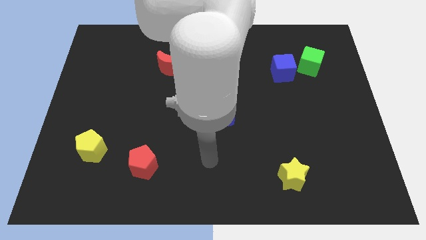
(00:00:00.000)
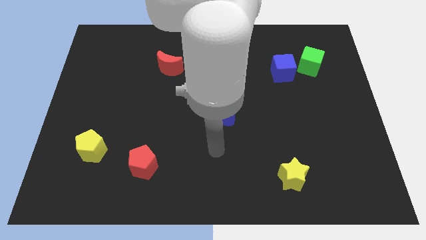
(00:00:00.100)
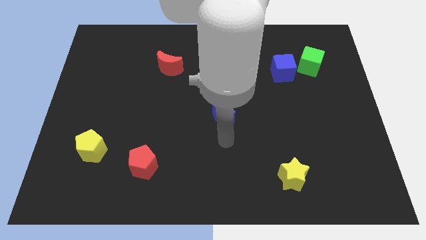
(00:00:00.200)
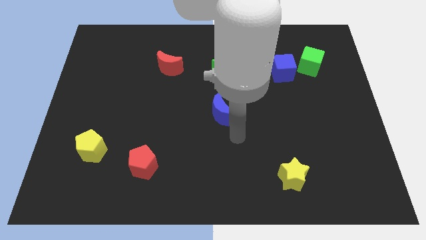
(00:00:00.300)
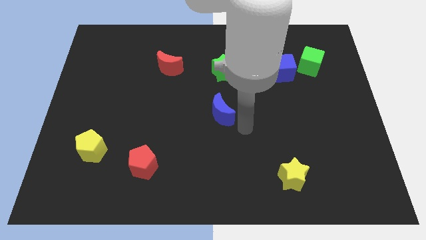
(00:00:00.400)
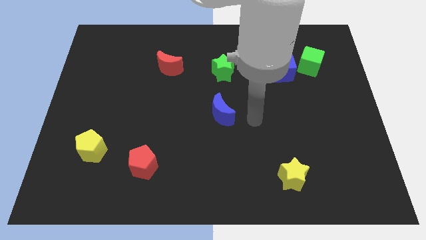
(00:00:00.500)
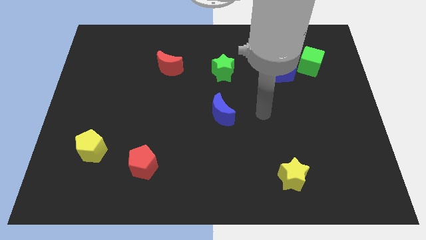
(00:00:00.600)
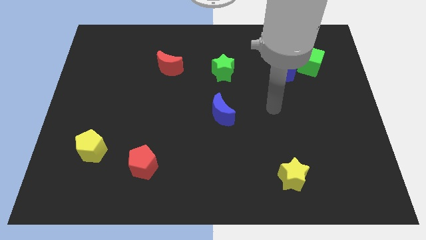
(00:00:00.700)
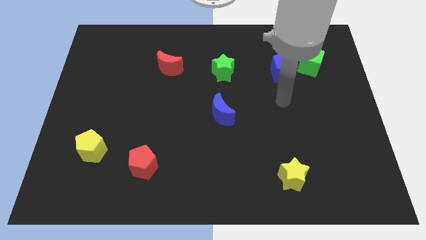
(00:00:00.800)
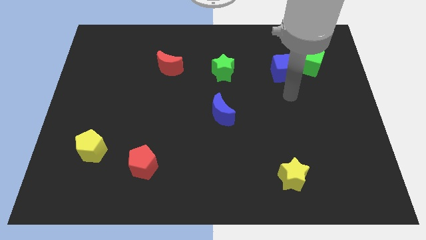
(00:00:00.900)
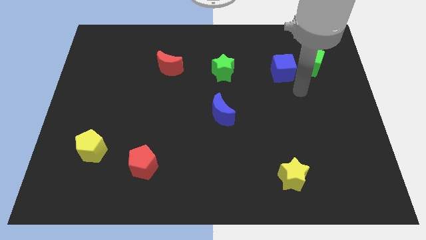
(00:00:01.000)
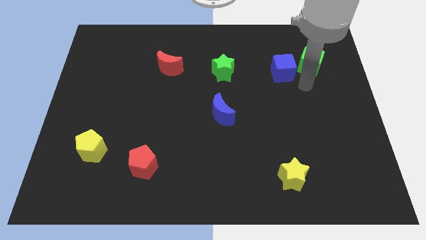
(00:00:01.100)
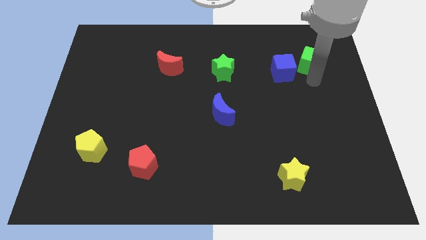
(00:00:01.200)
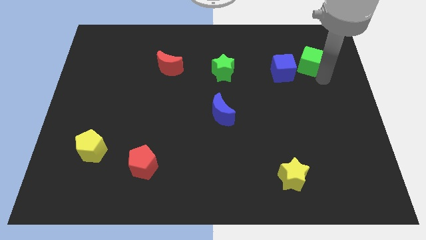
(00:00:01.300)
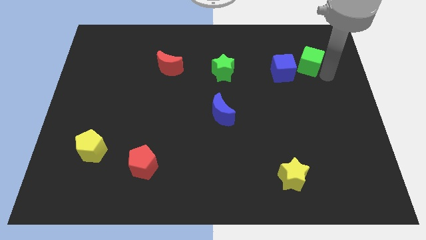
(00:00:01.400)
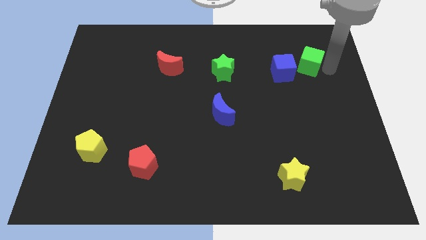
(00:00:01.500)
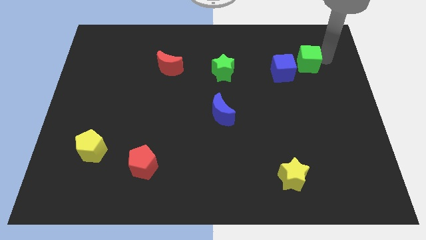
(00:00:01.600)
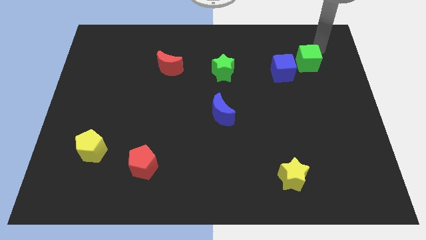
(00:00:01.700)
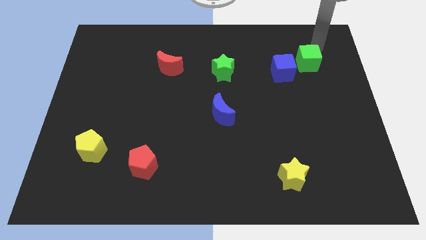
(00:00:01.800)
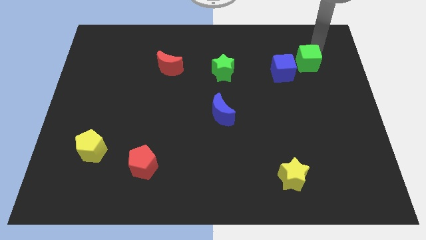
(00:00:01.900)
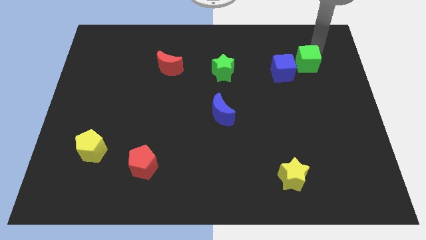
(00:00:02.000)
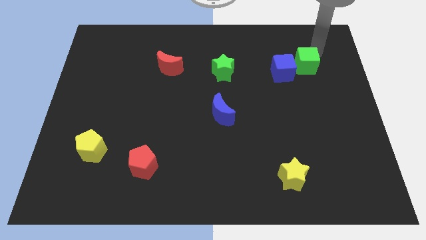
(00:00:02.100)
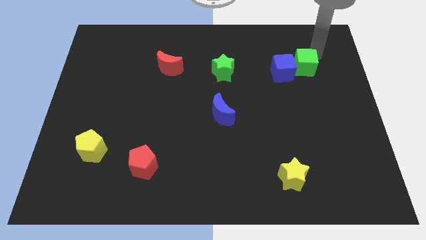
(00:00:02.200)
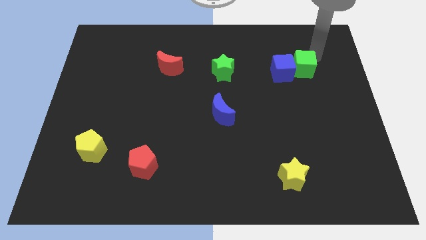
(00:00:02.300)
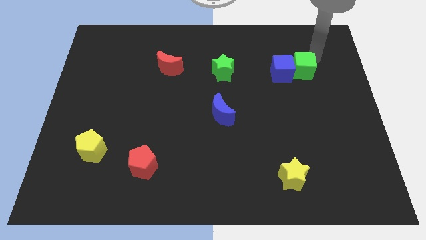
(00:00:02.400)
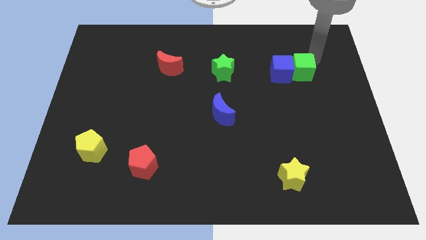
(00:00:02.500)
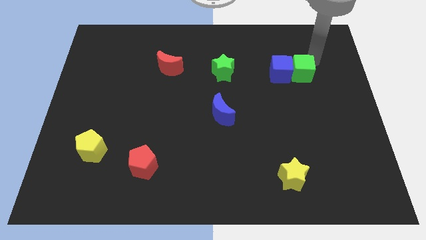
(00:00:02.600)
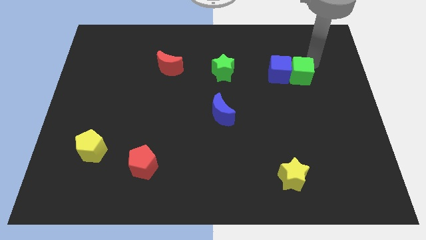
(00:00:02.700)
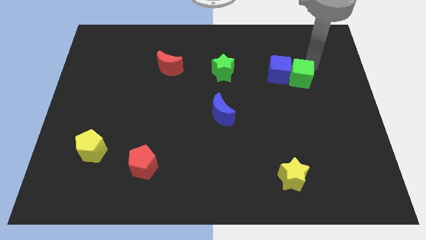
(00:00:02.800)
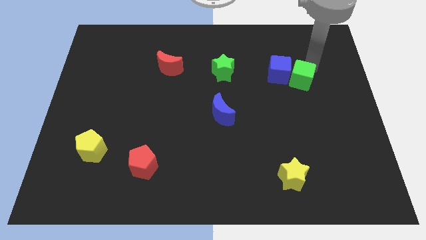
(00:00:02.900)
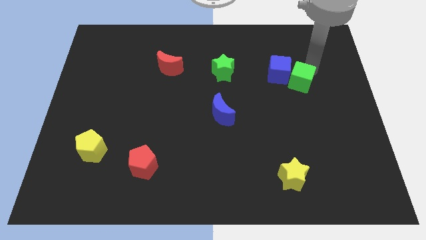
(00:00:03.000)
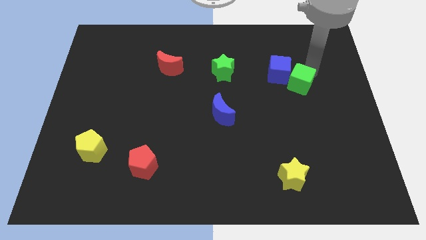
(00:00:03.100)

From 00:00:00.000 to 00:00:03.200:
slightly push the green cube down and then left

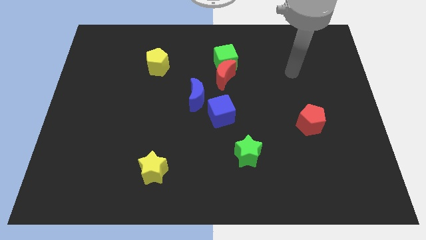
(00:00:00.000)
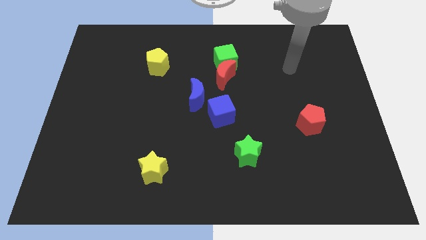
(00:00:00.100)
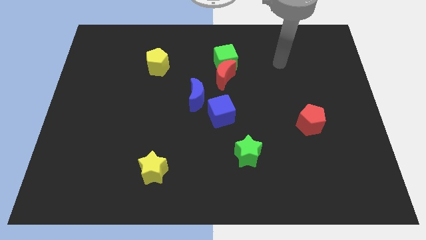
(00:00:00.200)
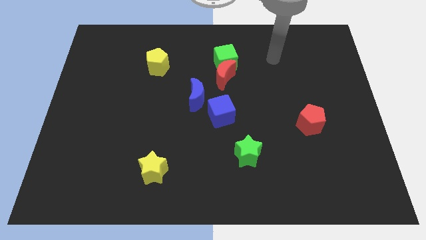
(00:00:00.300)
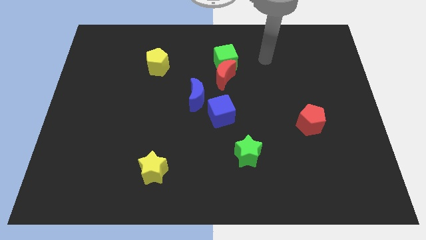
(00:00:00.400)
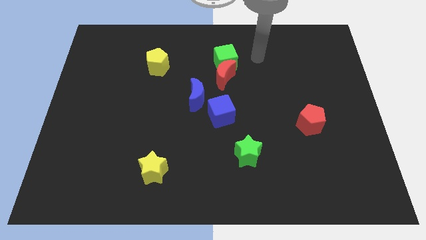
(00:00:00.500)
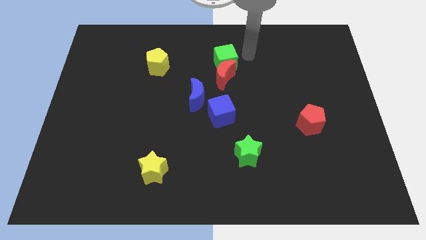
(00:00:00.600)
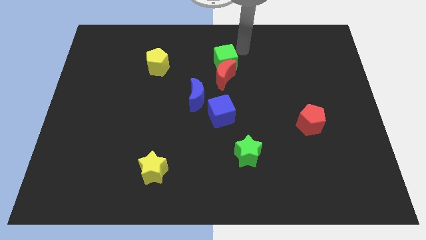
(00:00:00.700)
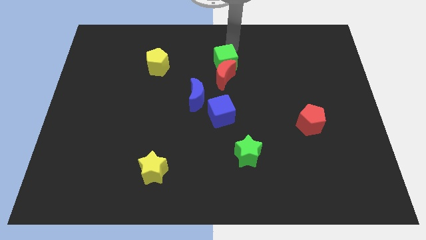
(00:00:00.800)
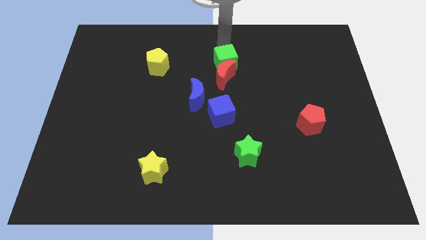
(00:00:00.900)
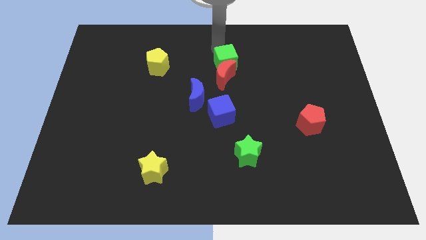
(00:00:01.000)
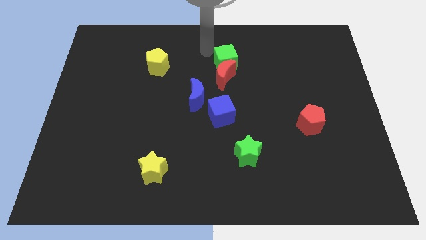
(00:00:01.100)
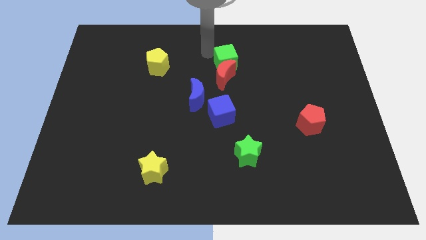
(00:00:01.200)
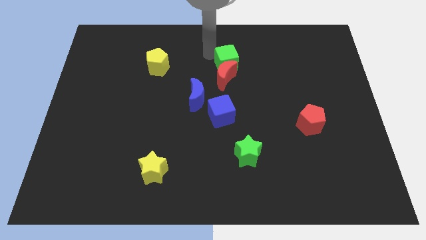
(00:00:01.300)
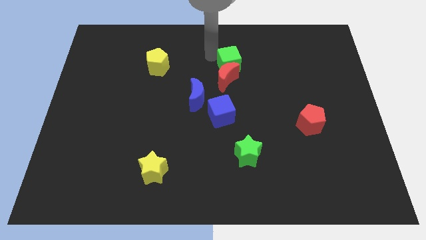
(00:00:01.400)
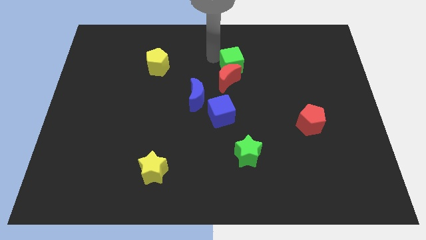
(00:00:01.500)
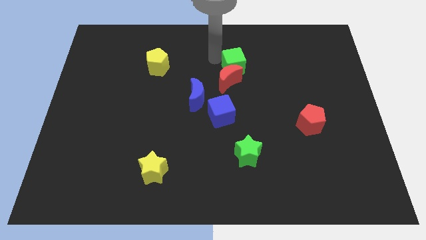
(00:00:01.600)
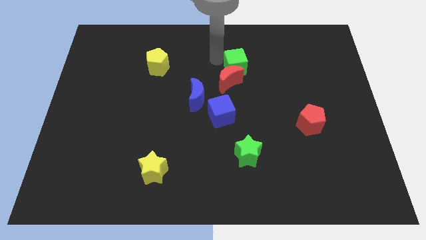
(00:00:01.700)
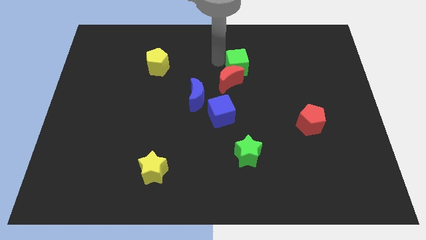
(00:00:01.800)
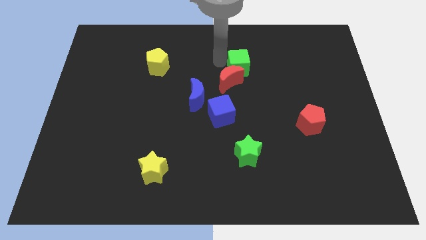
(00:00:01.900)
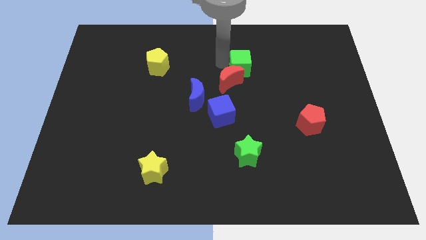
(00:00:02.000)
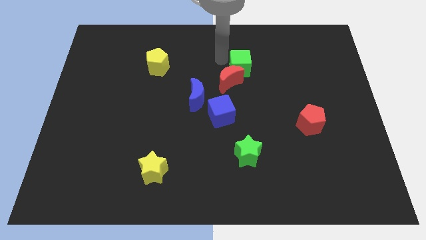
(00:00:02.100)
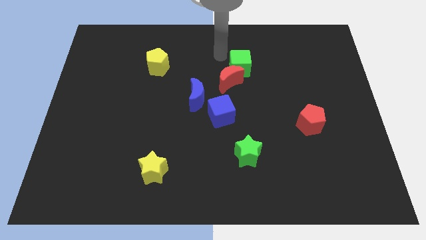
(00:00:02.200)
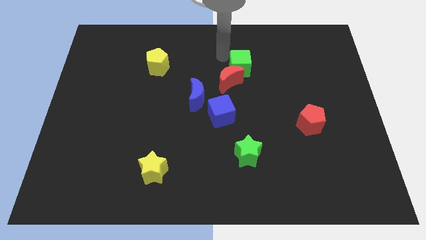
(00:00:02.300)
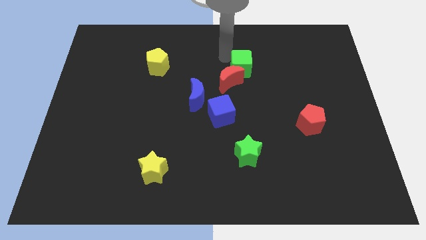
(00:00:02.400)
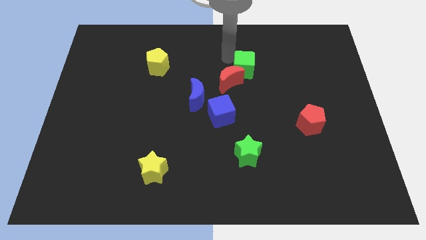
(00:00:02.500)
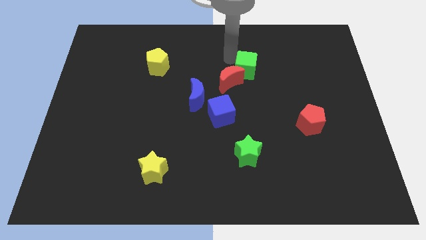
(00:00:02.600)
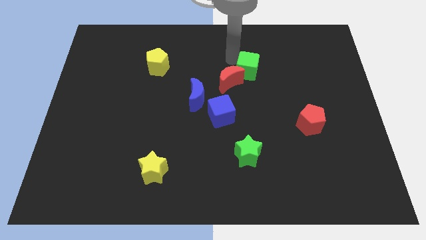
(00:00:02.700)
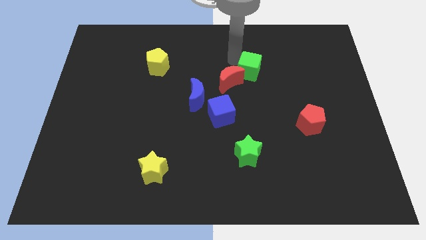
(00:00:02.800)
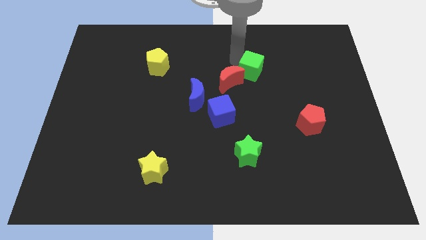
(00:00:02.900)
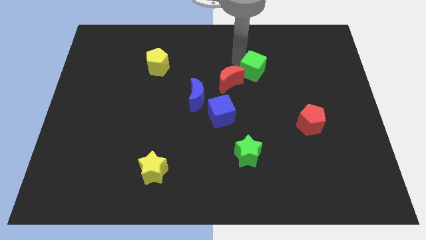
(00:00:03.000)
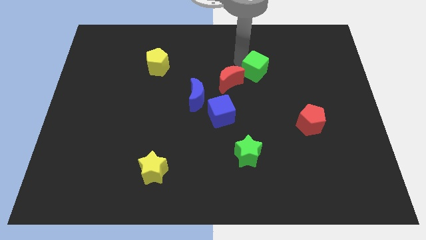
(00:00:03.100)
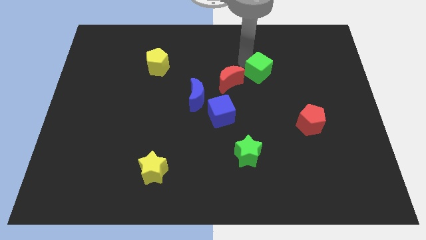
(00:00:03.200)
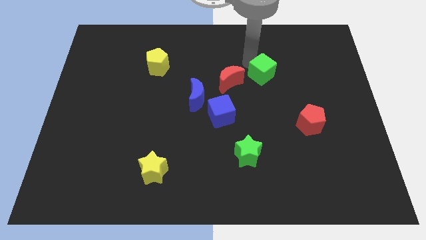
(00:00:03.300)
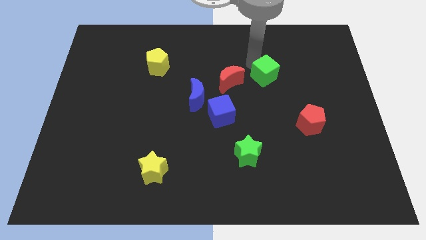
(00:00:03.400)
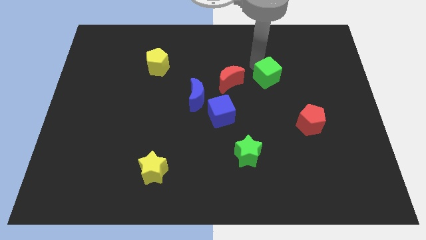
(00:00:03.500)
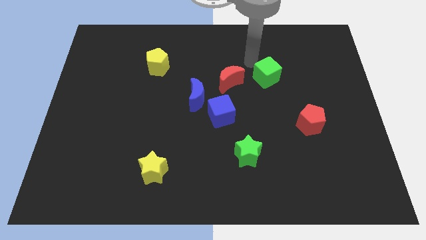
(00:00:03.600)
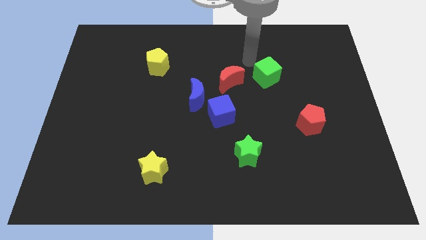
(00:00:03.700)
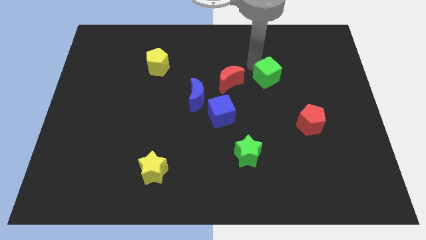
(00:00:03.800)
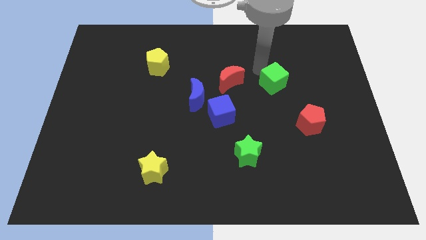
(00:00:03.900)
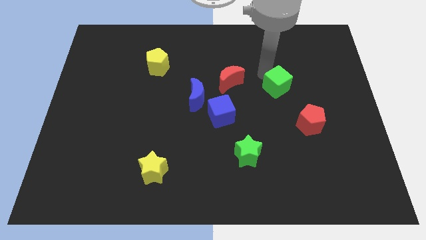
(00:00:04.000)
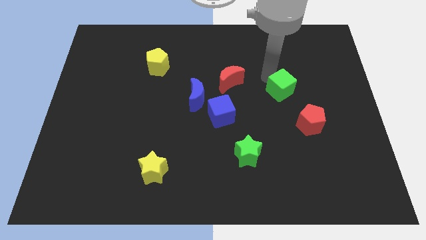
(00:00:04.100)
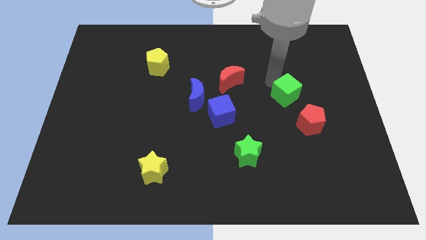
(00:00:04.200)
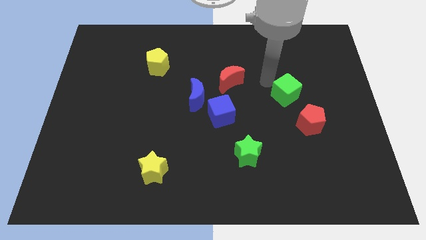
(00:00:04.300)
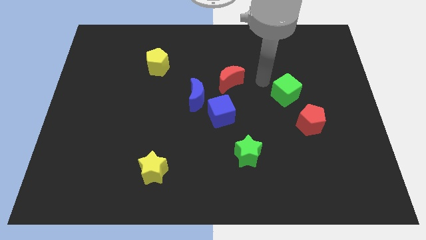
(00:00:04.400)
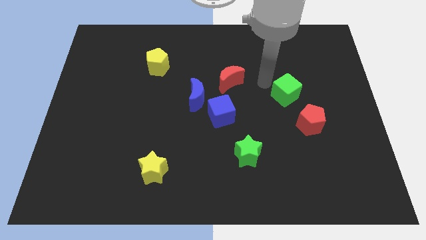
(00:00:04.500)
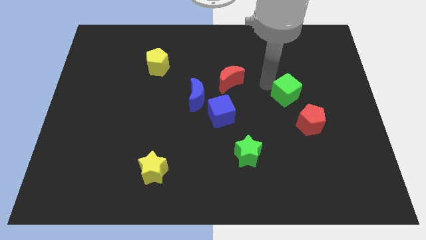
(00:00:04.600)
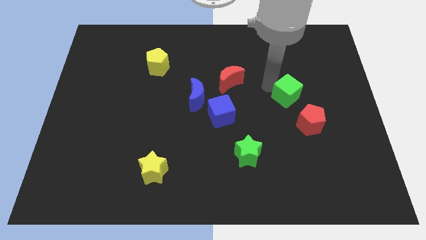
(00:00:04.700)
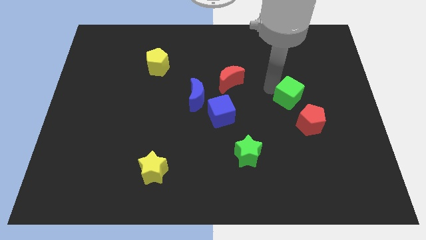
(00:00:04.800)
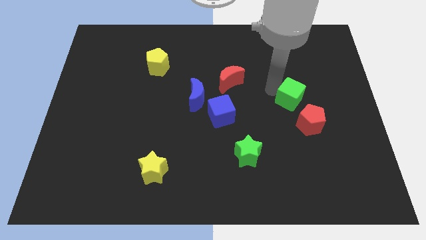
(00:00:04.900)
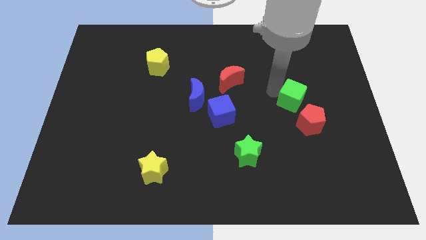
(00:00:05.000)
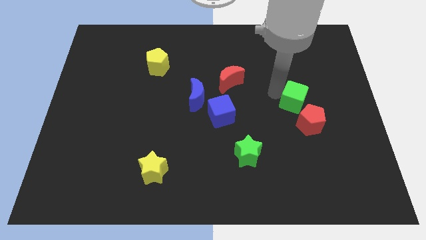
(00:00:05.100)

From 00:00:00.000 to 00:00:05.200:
move the green cube down and then to the right
